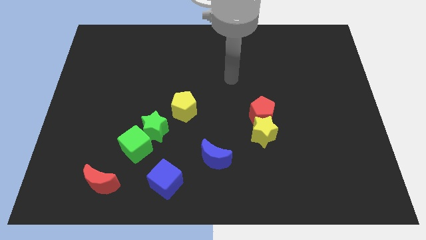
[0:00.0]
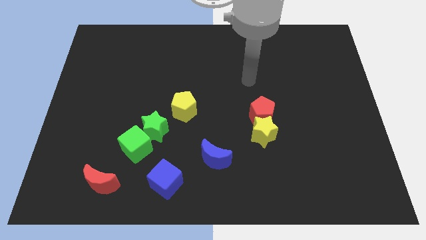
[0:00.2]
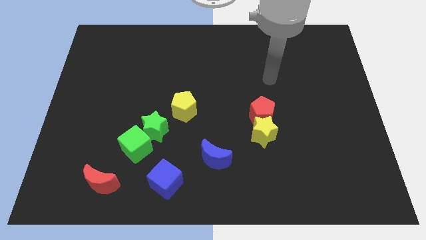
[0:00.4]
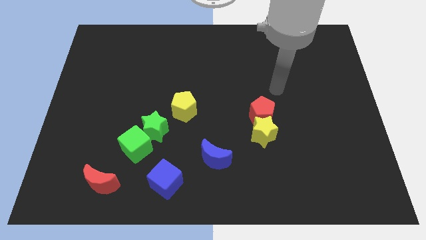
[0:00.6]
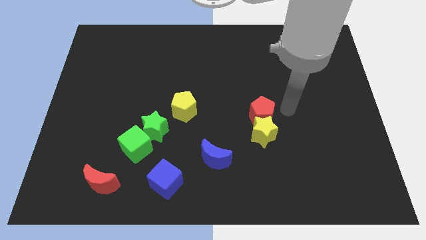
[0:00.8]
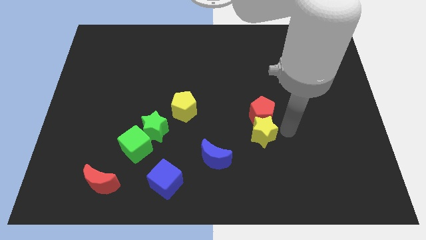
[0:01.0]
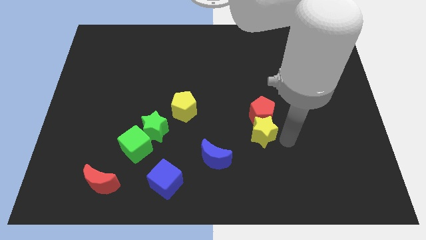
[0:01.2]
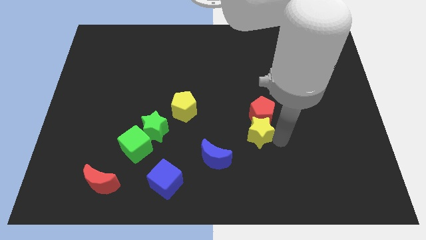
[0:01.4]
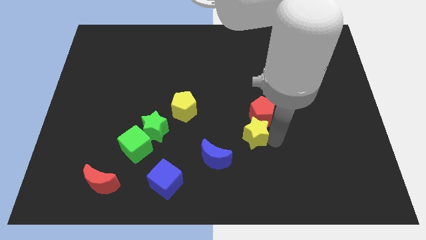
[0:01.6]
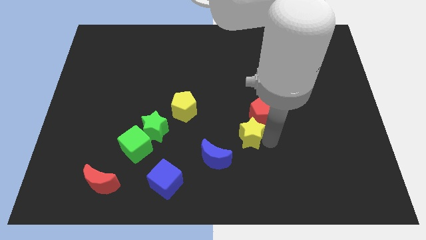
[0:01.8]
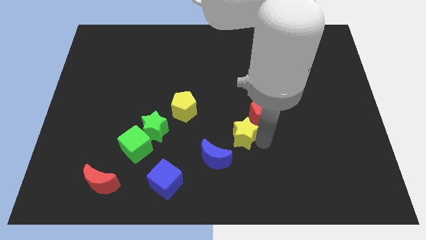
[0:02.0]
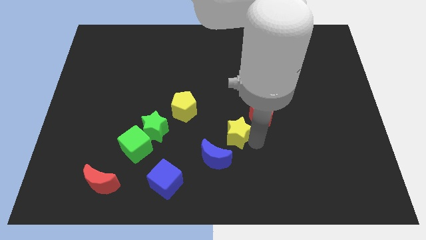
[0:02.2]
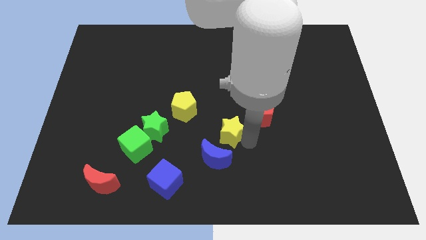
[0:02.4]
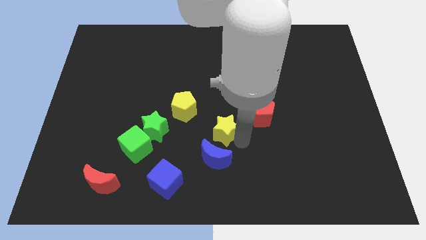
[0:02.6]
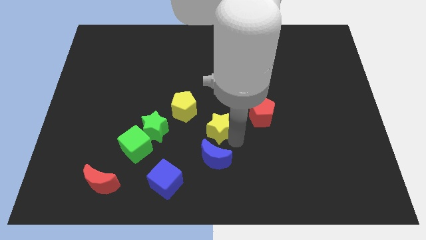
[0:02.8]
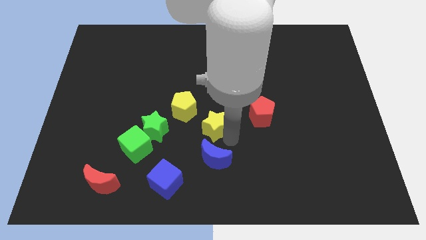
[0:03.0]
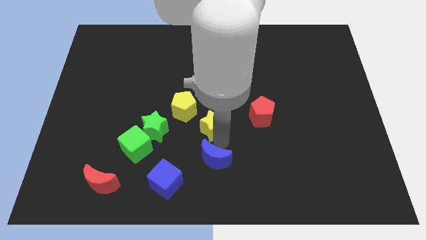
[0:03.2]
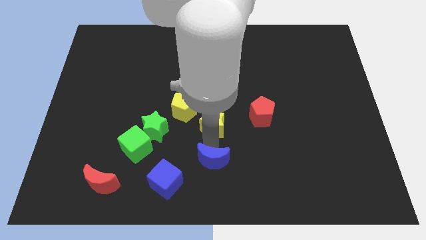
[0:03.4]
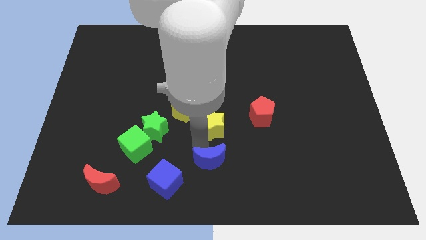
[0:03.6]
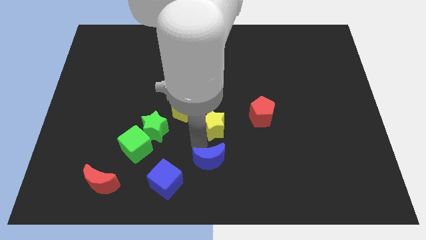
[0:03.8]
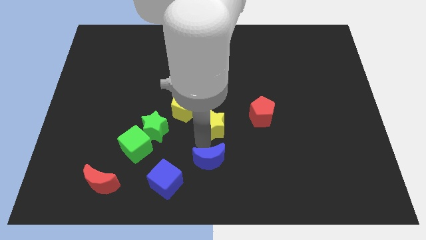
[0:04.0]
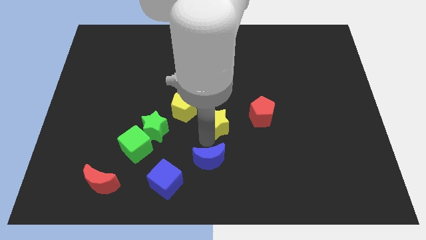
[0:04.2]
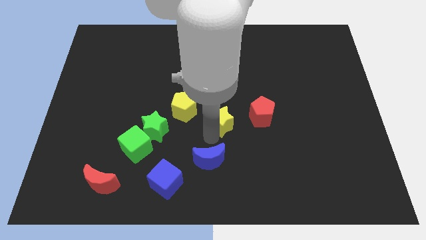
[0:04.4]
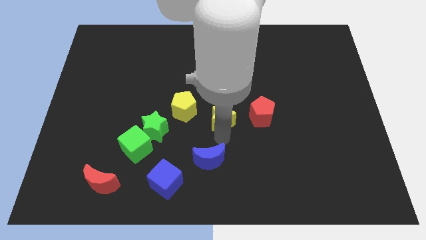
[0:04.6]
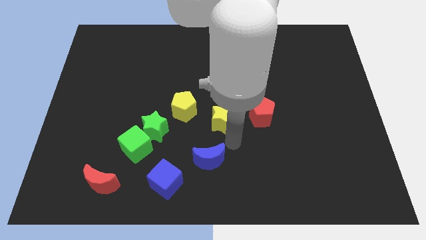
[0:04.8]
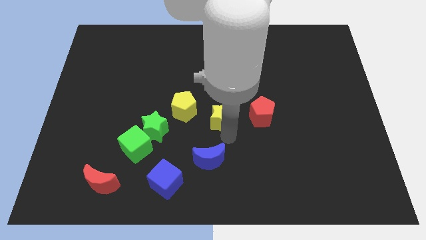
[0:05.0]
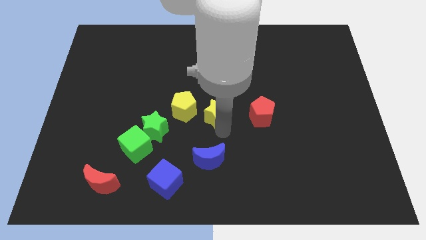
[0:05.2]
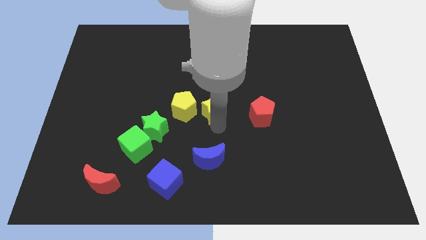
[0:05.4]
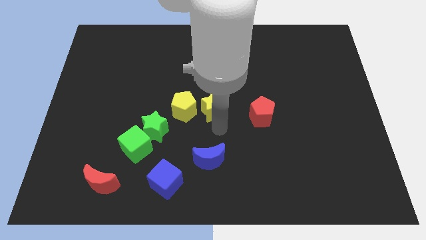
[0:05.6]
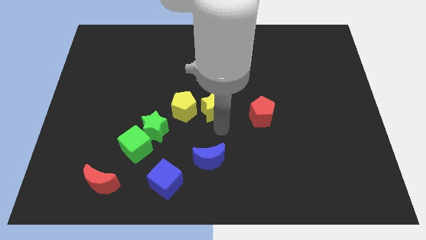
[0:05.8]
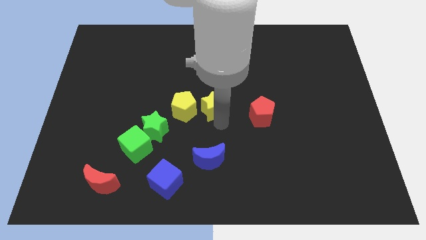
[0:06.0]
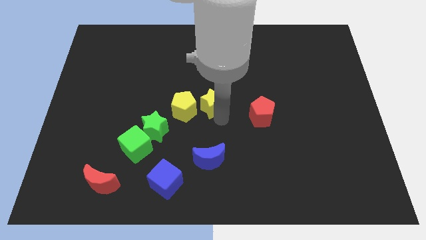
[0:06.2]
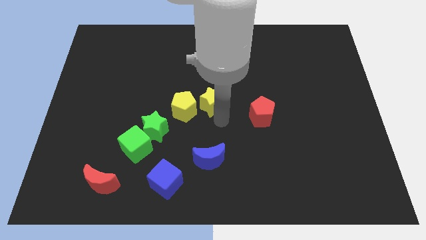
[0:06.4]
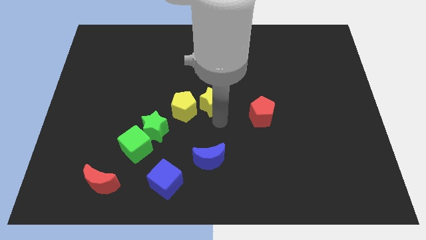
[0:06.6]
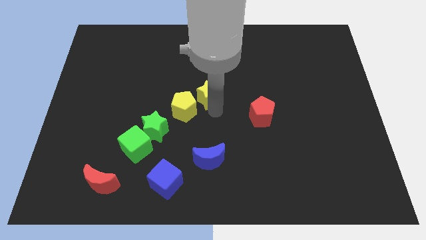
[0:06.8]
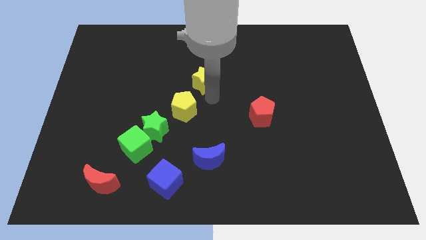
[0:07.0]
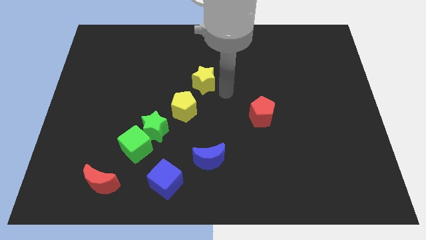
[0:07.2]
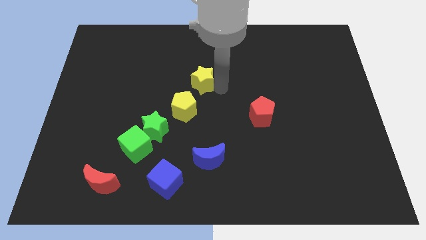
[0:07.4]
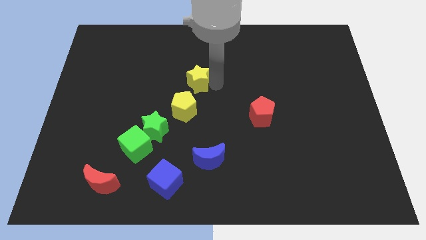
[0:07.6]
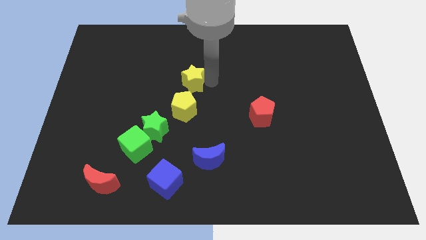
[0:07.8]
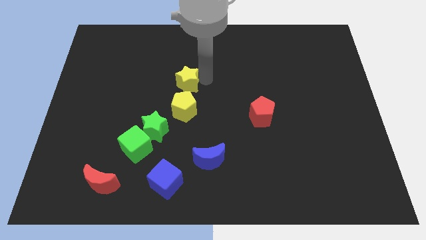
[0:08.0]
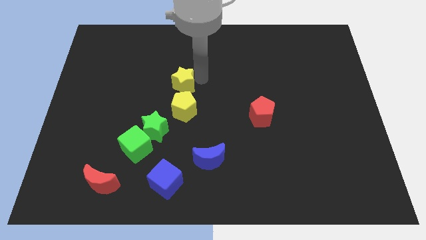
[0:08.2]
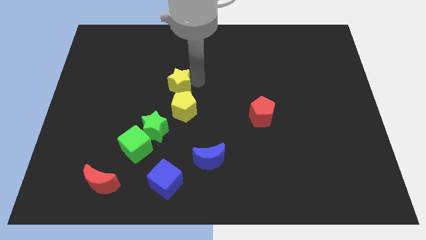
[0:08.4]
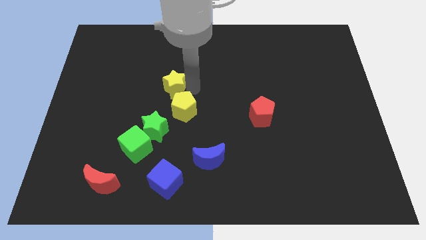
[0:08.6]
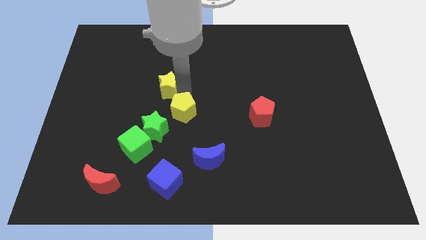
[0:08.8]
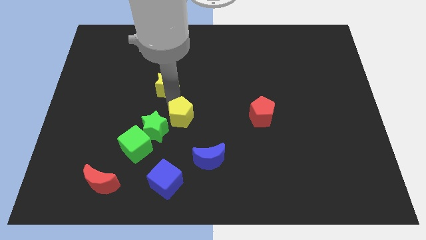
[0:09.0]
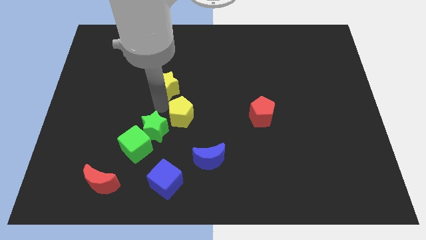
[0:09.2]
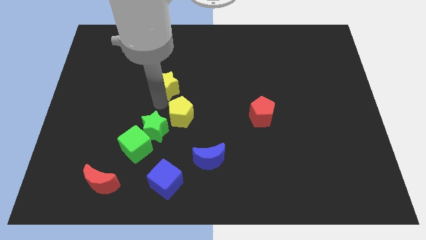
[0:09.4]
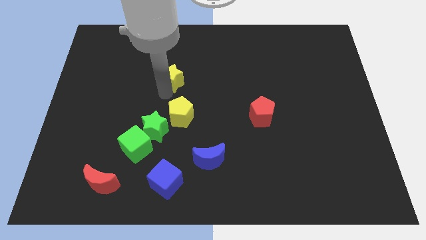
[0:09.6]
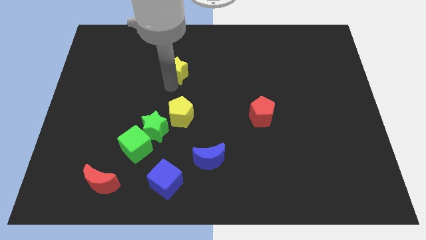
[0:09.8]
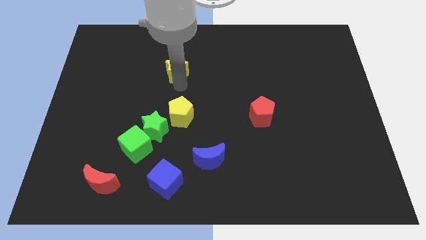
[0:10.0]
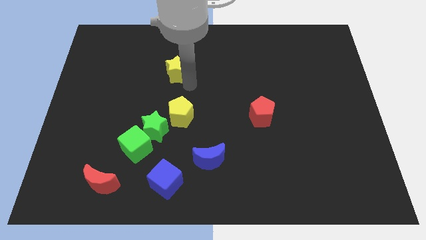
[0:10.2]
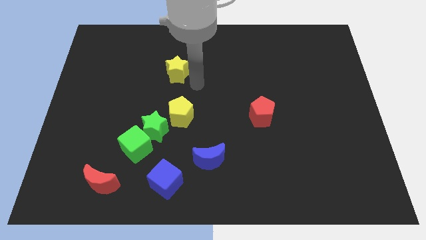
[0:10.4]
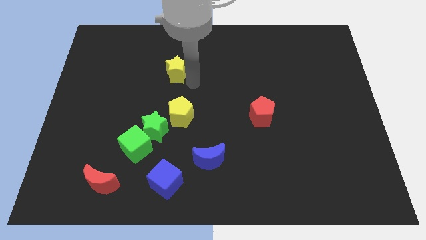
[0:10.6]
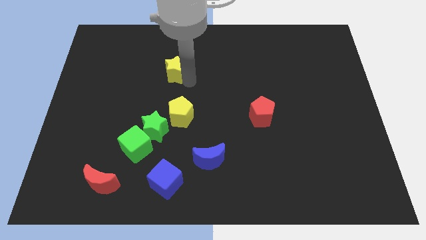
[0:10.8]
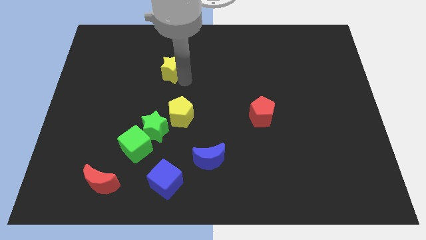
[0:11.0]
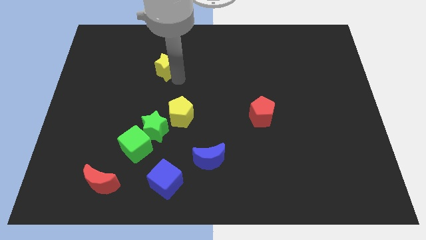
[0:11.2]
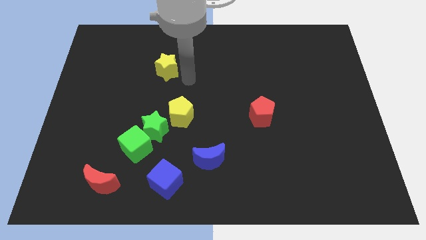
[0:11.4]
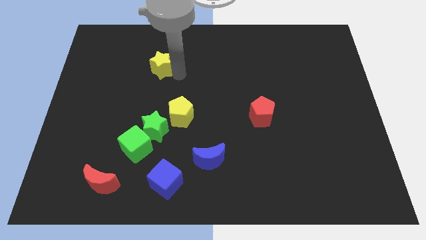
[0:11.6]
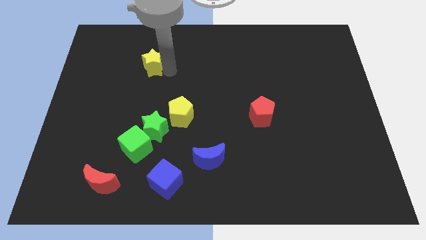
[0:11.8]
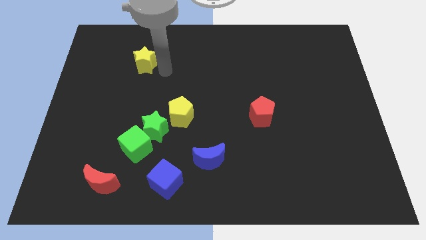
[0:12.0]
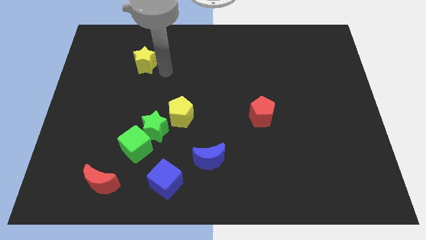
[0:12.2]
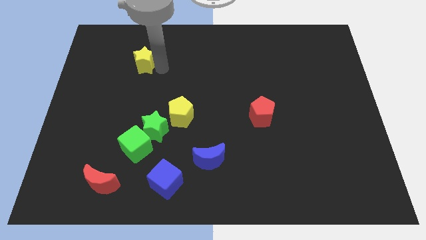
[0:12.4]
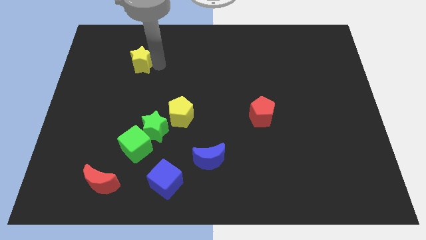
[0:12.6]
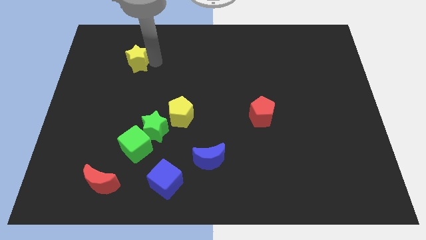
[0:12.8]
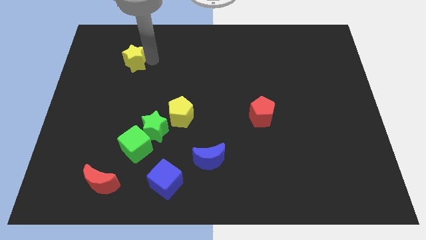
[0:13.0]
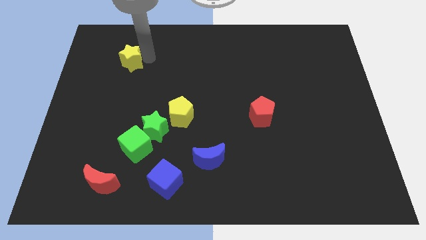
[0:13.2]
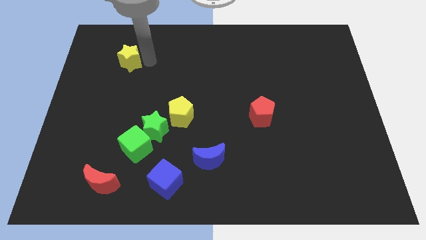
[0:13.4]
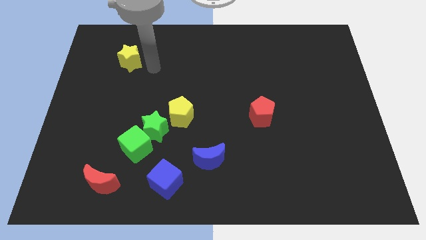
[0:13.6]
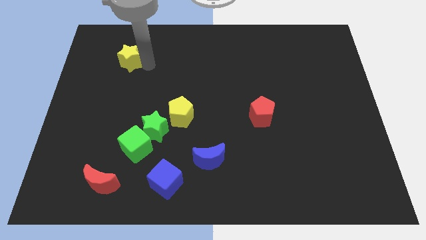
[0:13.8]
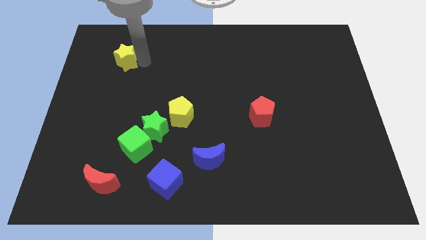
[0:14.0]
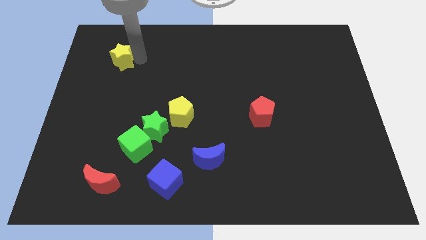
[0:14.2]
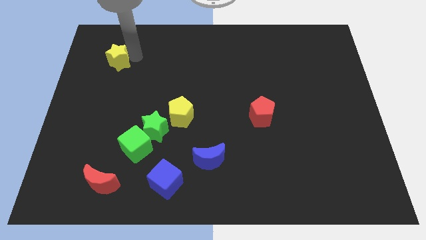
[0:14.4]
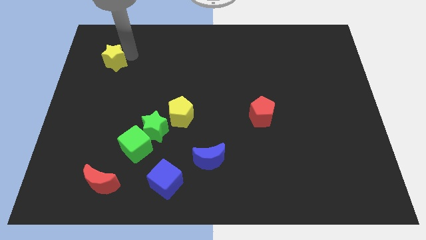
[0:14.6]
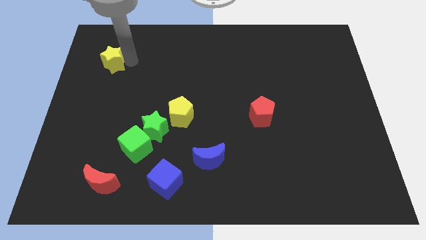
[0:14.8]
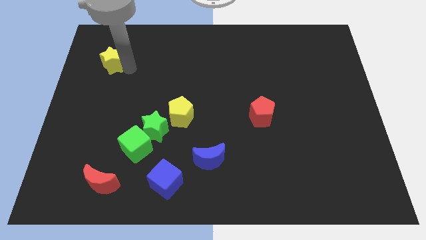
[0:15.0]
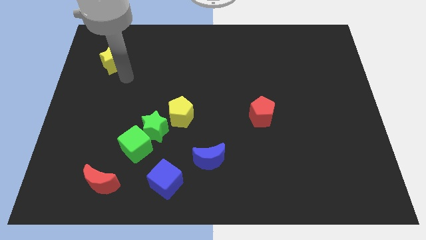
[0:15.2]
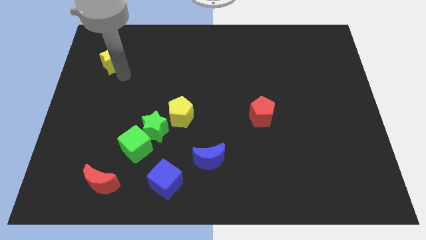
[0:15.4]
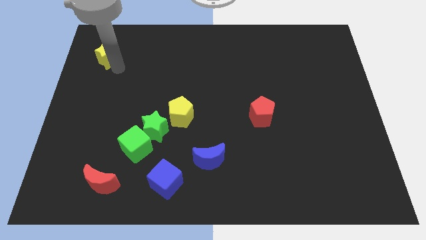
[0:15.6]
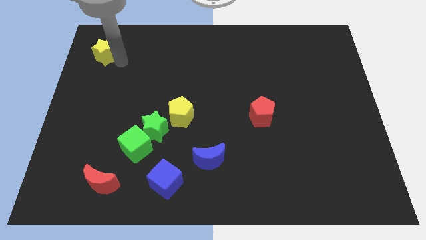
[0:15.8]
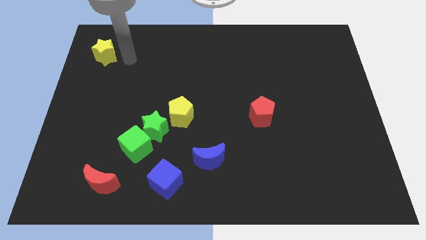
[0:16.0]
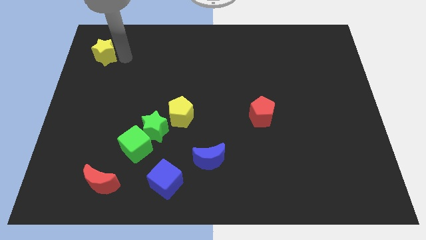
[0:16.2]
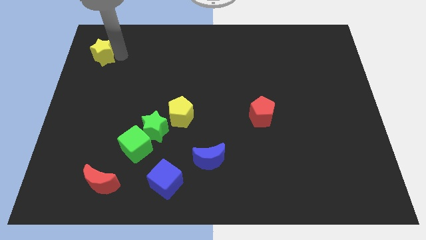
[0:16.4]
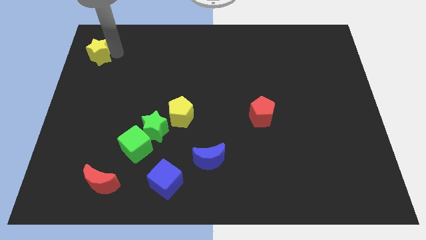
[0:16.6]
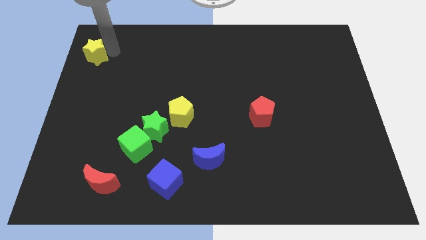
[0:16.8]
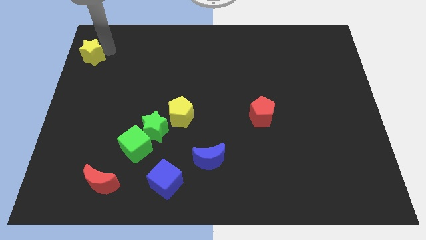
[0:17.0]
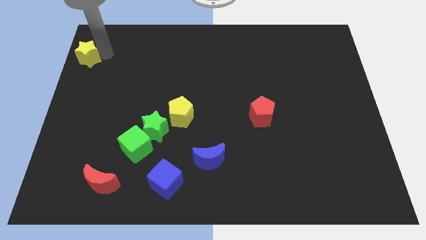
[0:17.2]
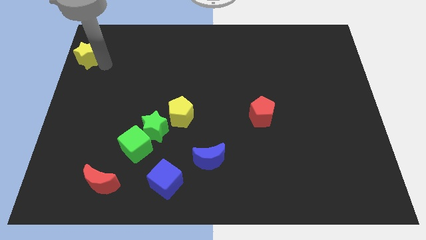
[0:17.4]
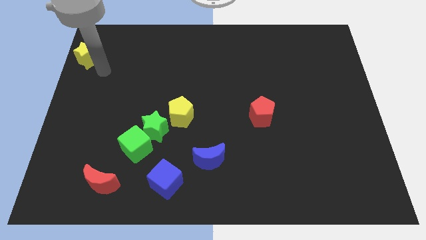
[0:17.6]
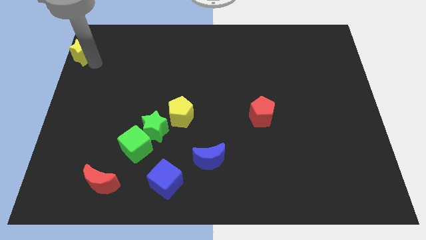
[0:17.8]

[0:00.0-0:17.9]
push the yellow star to the top left of the board
